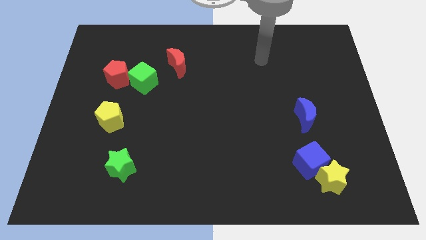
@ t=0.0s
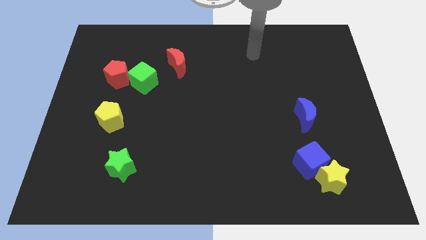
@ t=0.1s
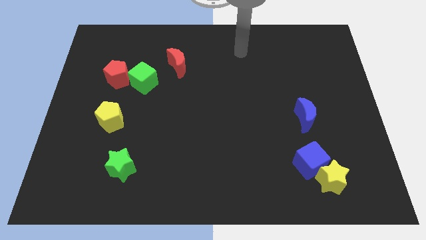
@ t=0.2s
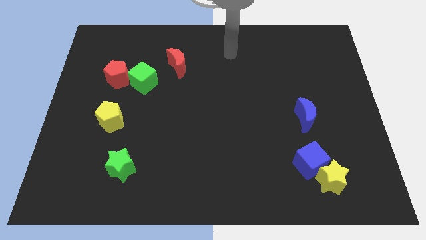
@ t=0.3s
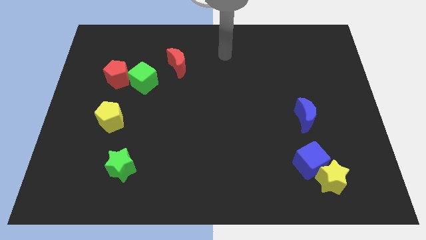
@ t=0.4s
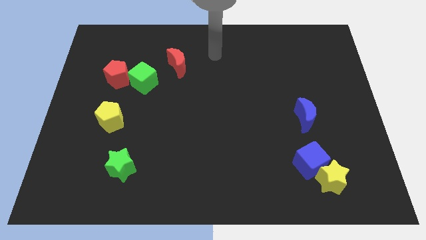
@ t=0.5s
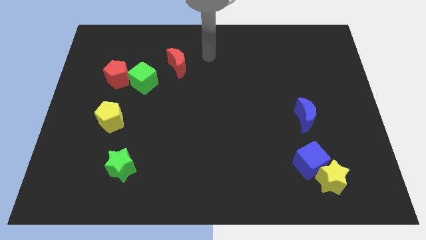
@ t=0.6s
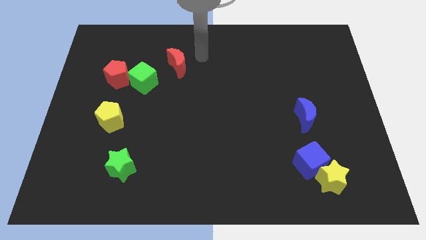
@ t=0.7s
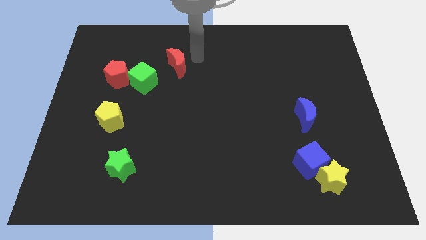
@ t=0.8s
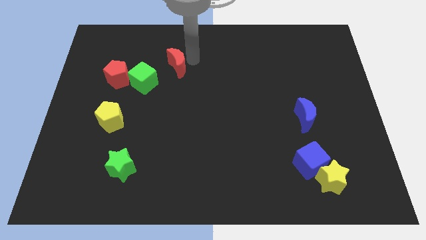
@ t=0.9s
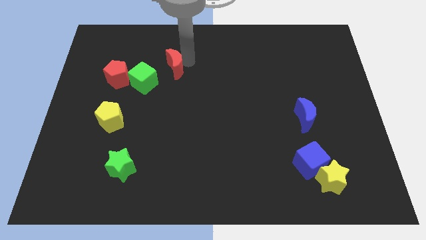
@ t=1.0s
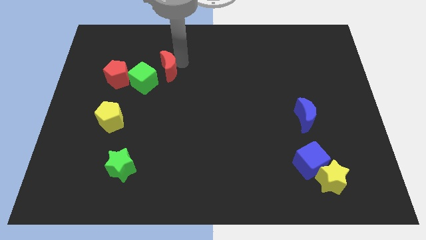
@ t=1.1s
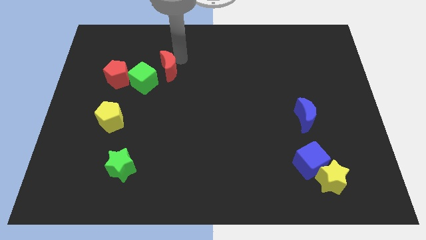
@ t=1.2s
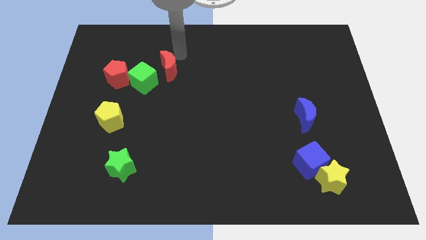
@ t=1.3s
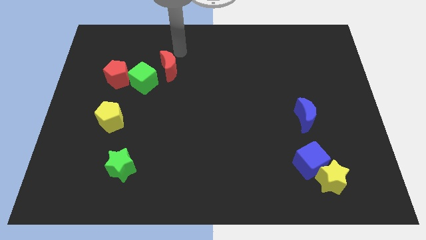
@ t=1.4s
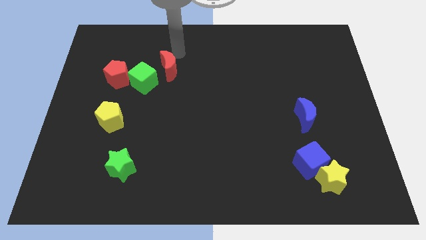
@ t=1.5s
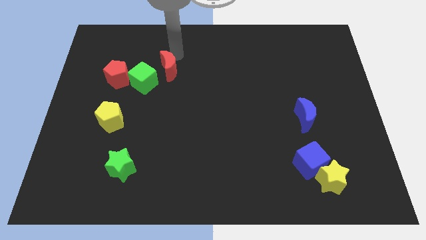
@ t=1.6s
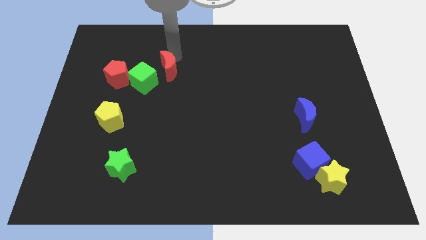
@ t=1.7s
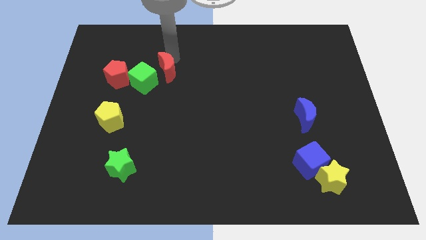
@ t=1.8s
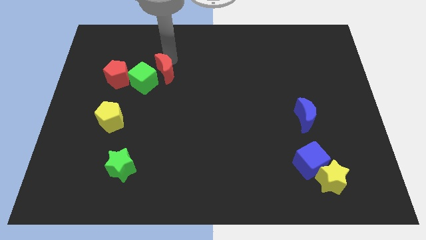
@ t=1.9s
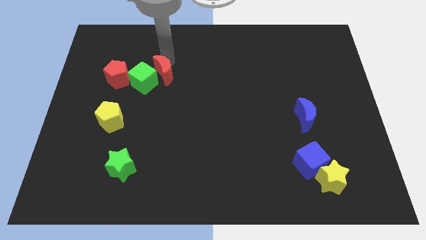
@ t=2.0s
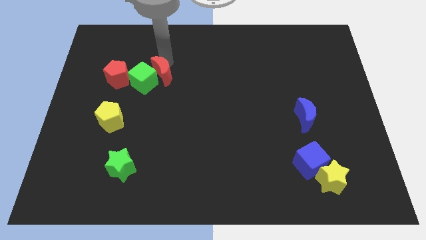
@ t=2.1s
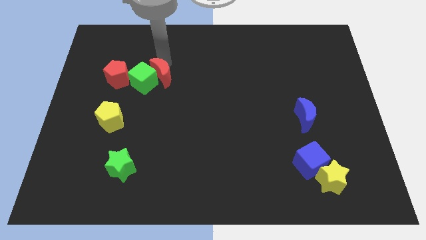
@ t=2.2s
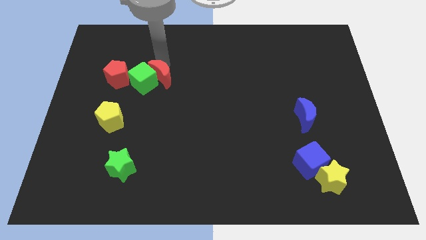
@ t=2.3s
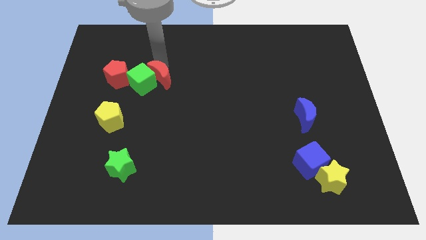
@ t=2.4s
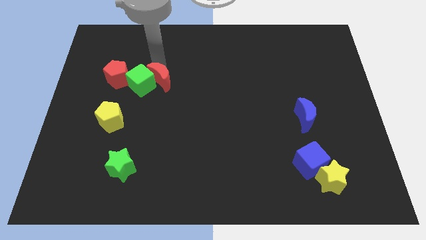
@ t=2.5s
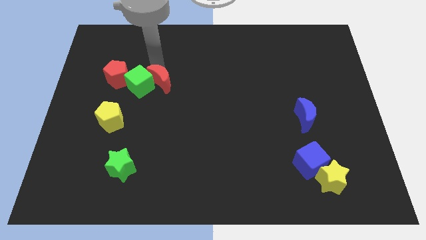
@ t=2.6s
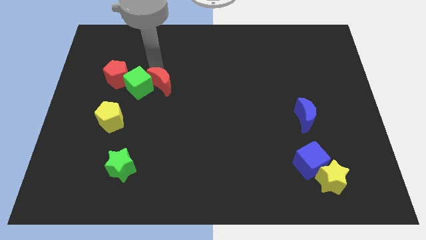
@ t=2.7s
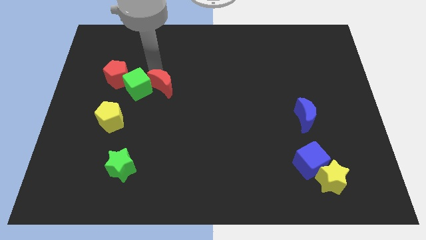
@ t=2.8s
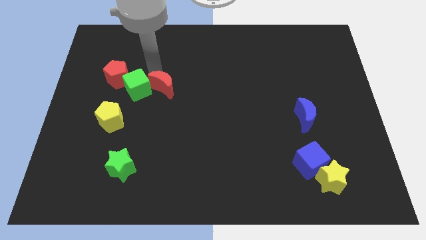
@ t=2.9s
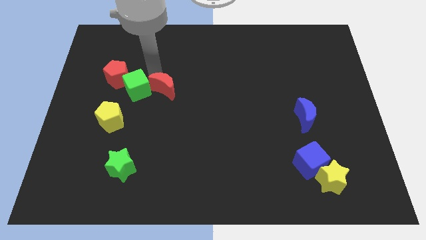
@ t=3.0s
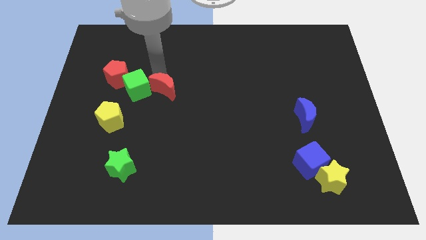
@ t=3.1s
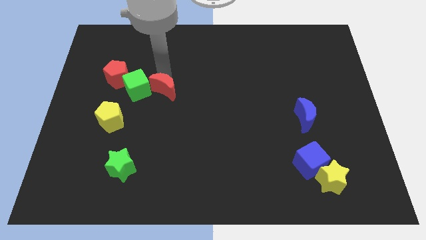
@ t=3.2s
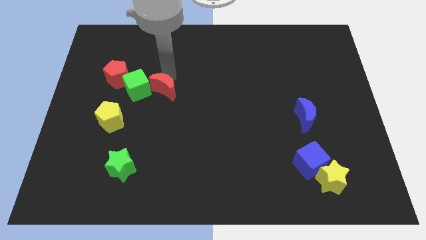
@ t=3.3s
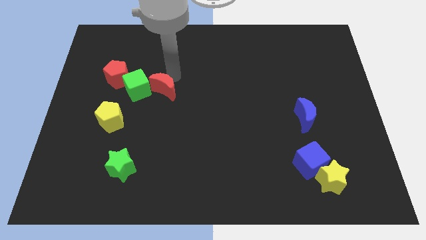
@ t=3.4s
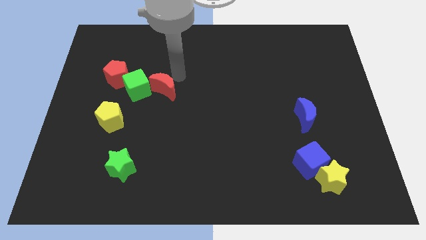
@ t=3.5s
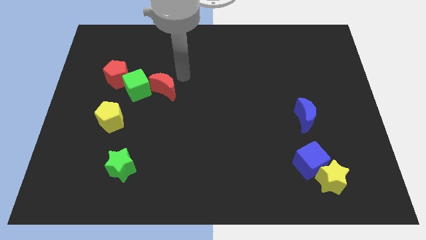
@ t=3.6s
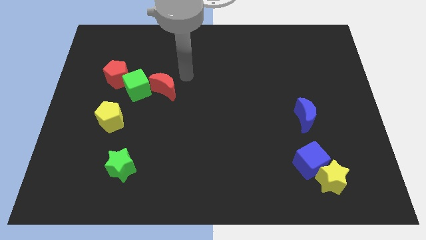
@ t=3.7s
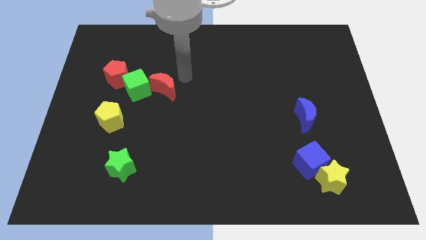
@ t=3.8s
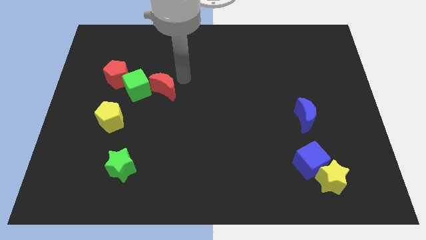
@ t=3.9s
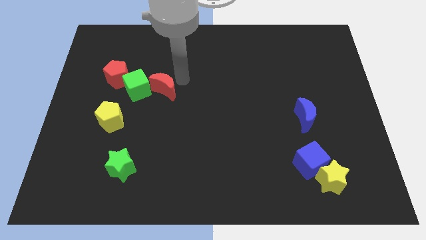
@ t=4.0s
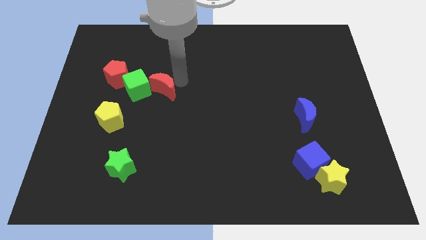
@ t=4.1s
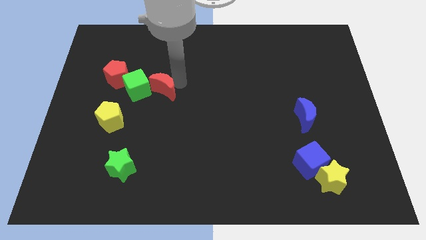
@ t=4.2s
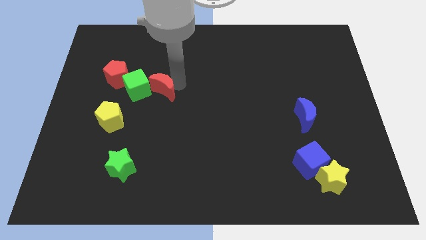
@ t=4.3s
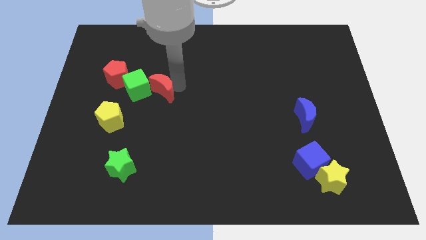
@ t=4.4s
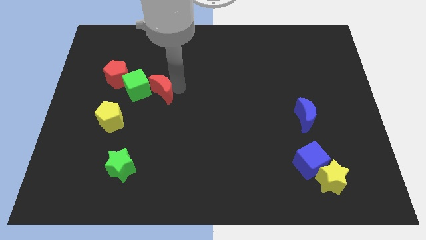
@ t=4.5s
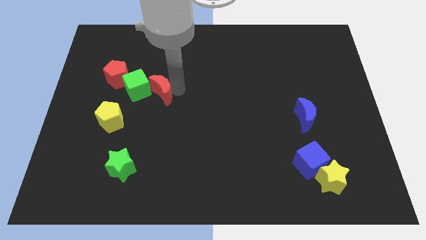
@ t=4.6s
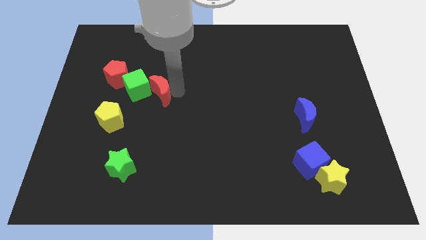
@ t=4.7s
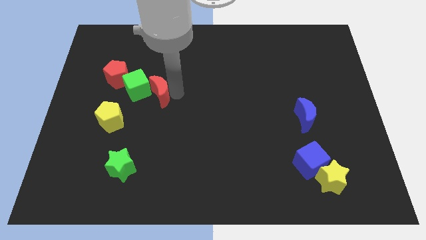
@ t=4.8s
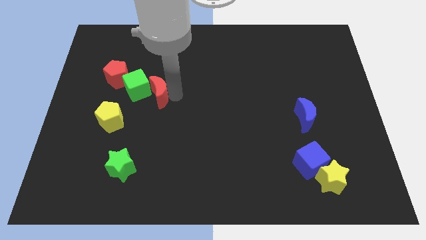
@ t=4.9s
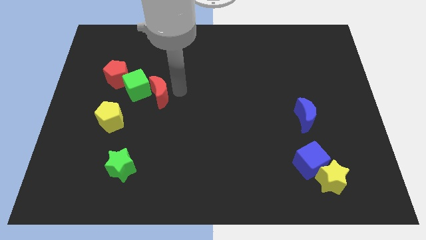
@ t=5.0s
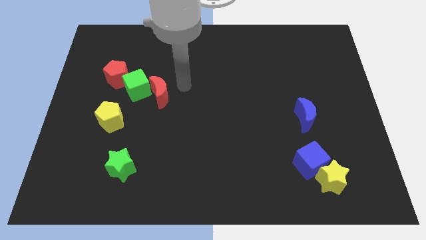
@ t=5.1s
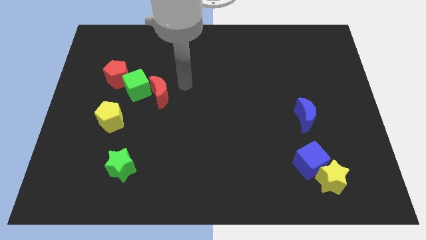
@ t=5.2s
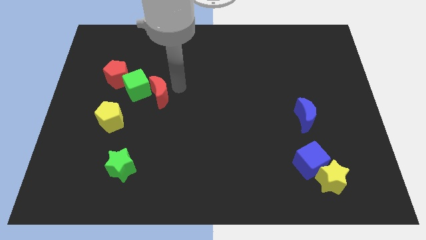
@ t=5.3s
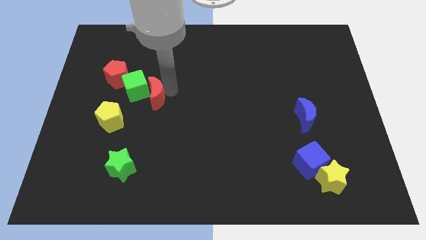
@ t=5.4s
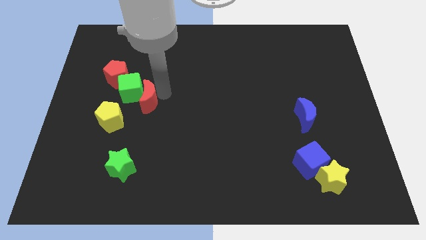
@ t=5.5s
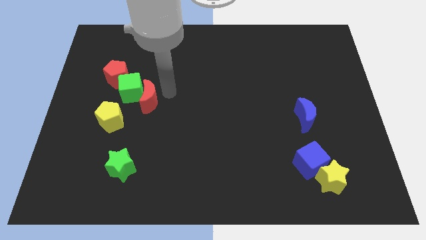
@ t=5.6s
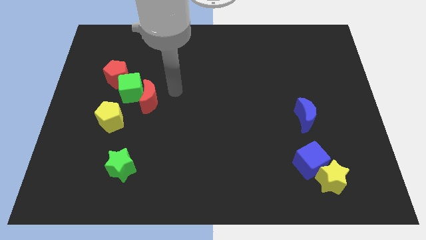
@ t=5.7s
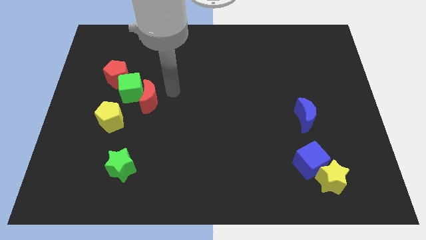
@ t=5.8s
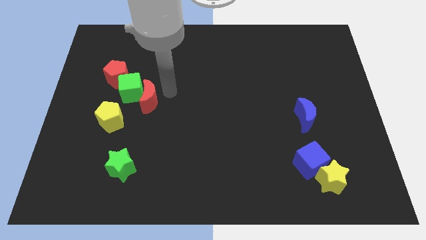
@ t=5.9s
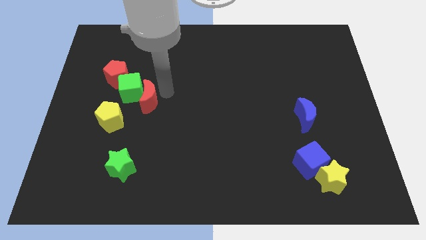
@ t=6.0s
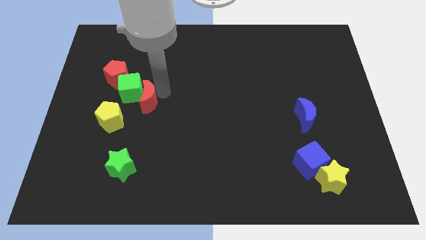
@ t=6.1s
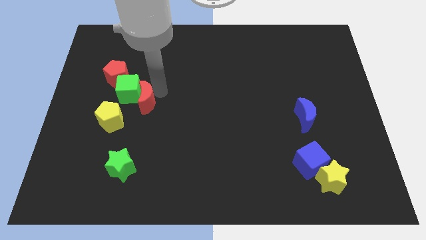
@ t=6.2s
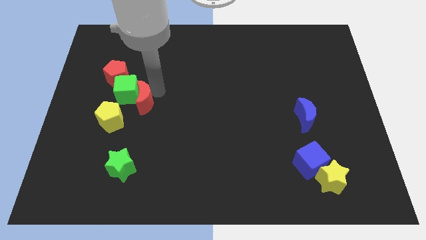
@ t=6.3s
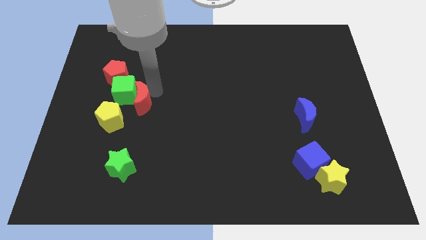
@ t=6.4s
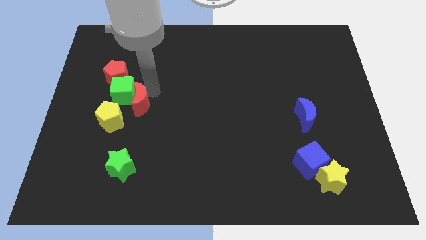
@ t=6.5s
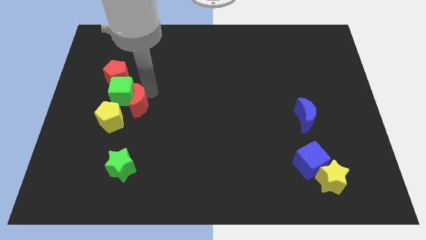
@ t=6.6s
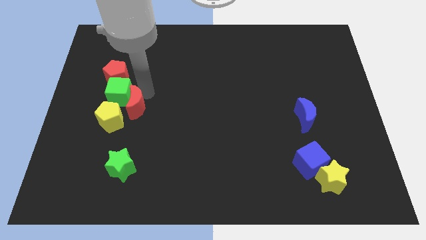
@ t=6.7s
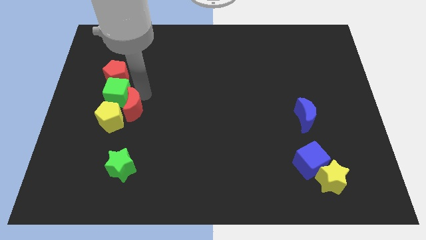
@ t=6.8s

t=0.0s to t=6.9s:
slide the red moon towards the yellow pentagon
